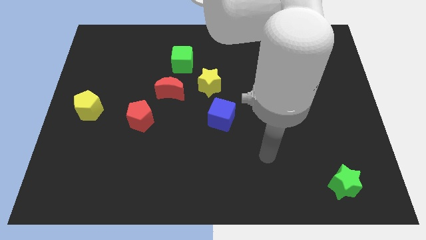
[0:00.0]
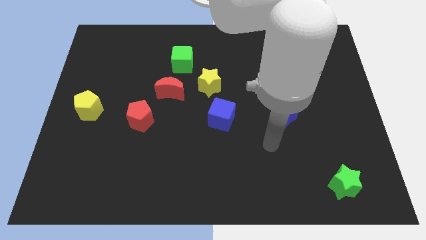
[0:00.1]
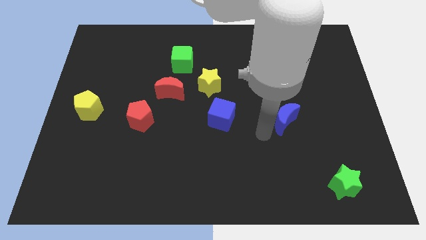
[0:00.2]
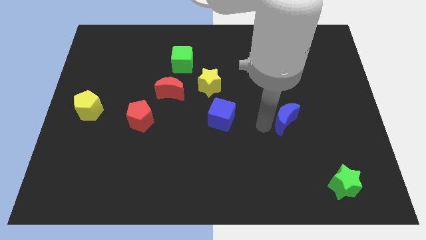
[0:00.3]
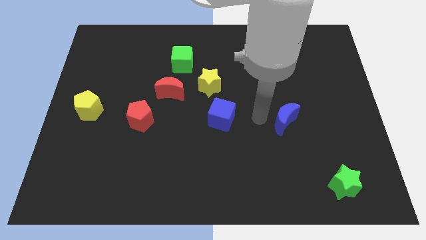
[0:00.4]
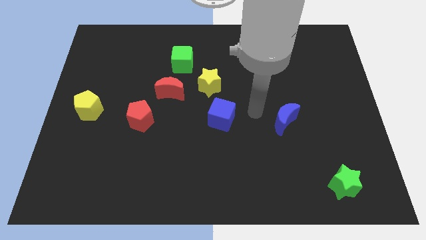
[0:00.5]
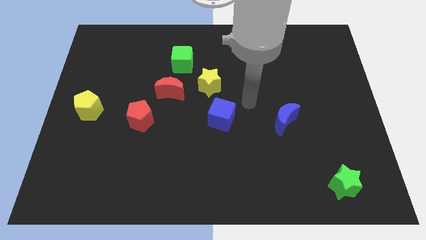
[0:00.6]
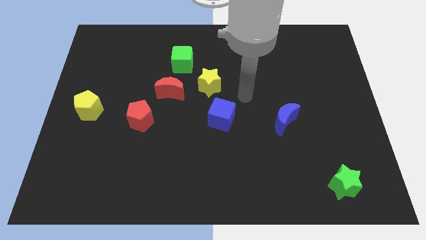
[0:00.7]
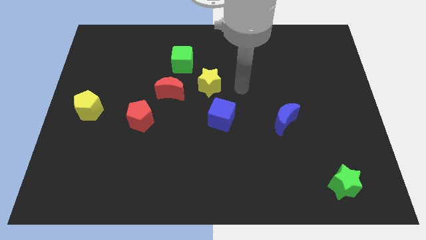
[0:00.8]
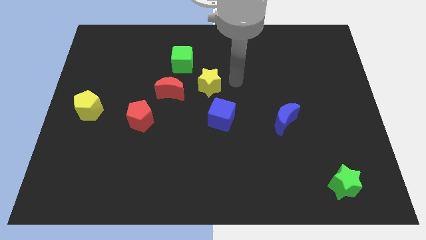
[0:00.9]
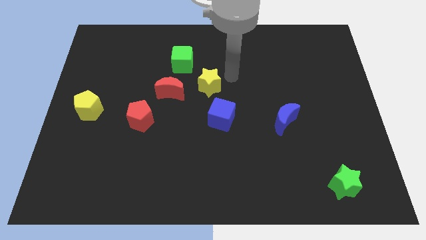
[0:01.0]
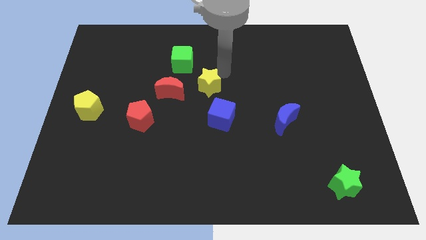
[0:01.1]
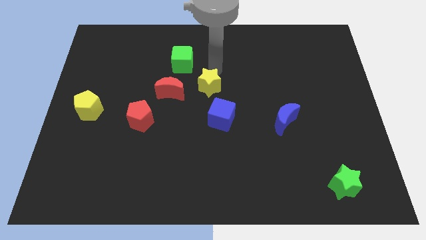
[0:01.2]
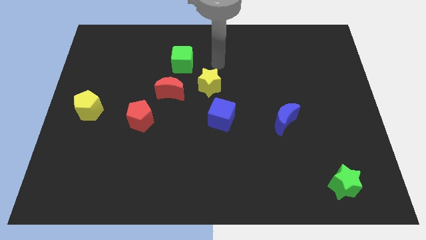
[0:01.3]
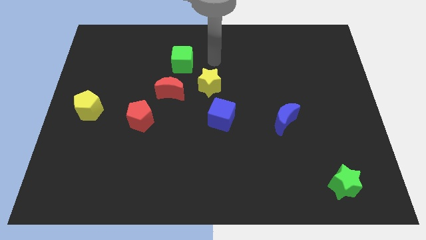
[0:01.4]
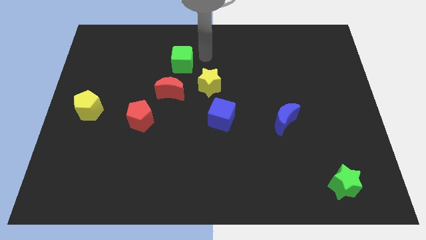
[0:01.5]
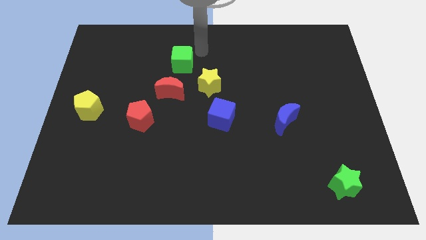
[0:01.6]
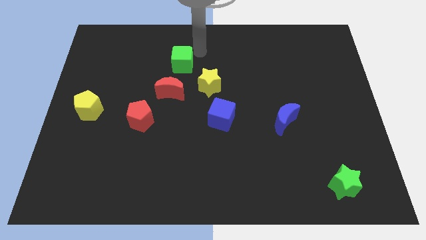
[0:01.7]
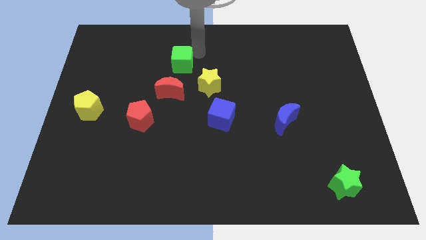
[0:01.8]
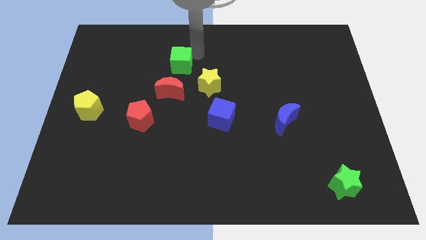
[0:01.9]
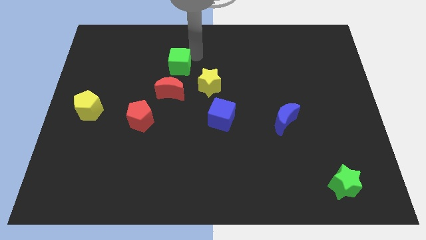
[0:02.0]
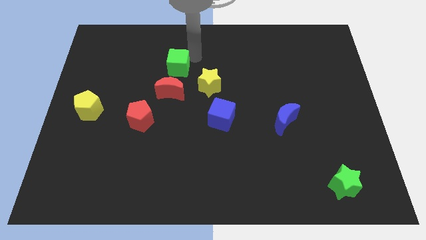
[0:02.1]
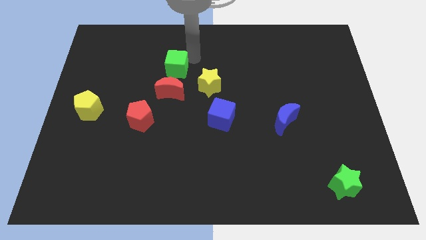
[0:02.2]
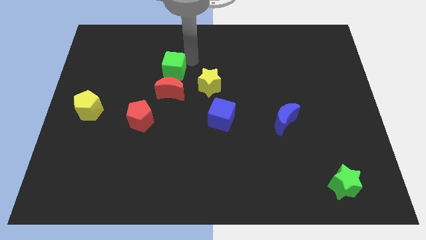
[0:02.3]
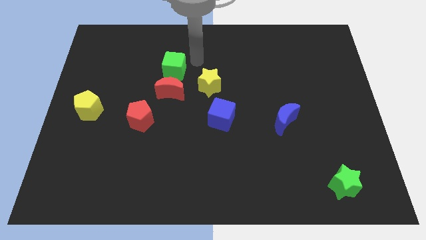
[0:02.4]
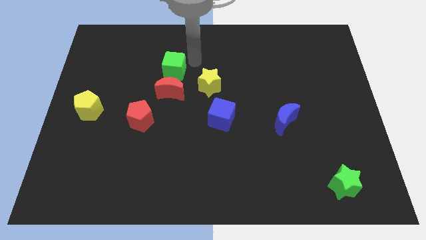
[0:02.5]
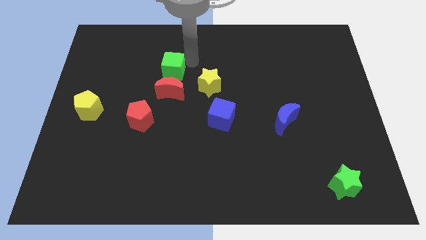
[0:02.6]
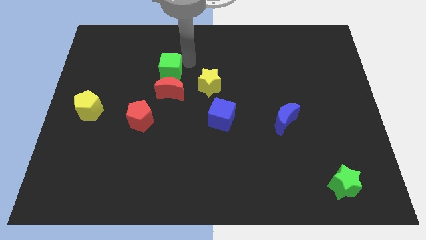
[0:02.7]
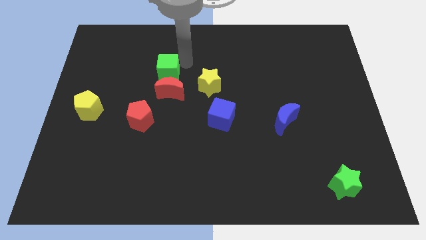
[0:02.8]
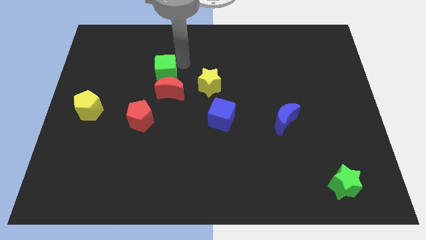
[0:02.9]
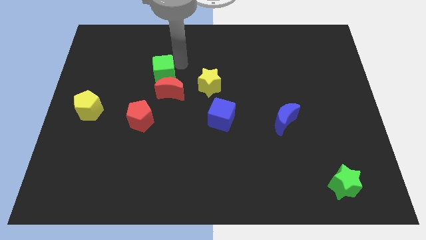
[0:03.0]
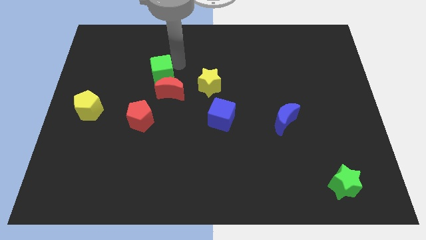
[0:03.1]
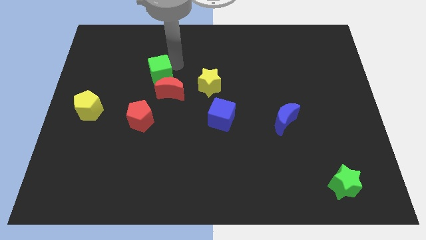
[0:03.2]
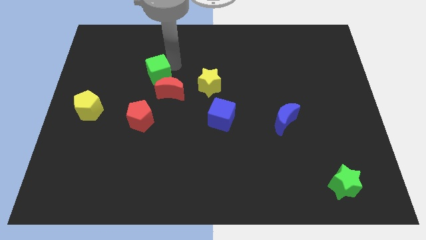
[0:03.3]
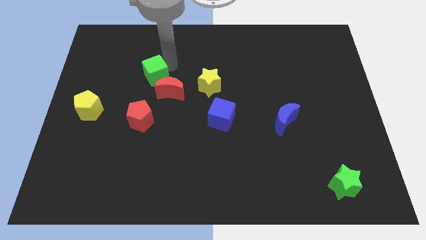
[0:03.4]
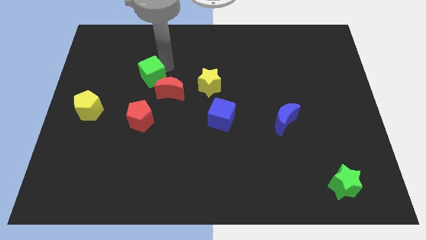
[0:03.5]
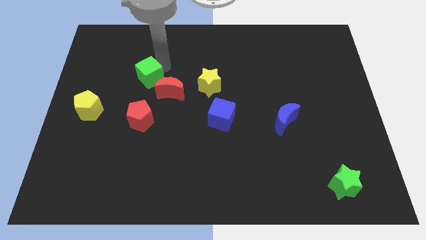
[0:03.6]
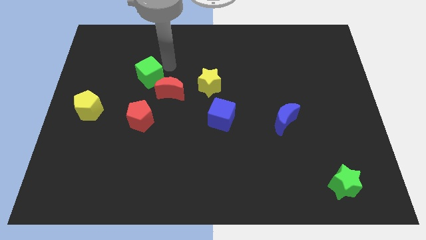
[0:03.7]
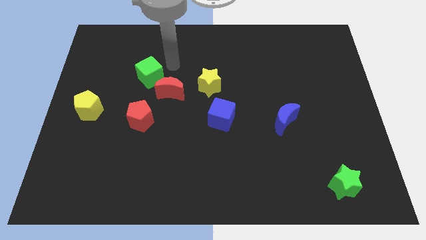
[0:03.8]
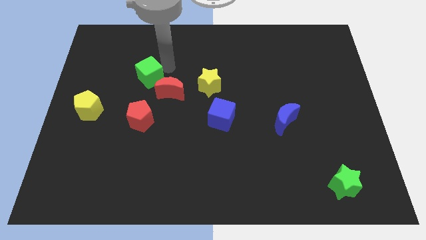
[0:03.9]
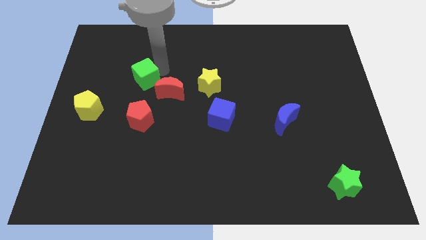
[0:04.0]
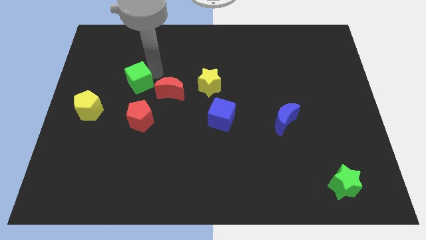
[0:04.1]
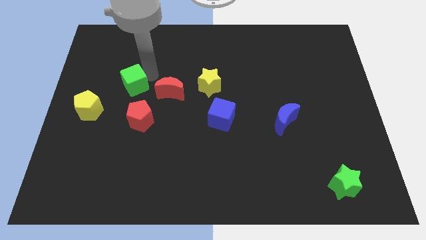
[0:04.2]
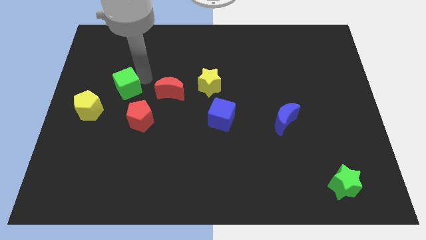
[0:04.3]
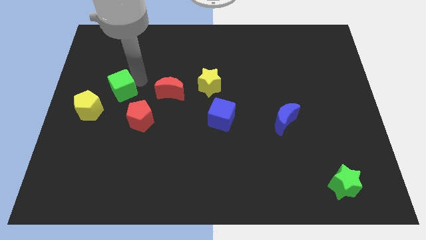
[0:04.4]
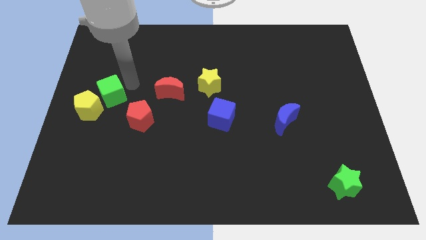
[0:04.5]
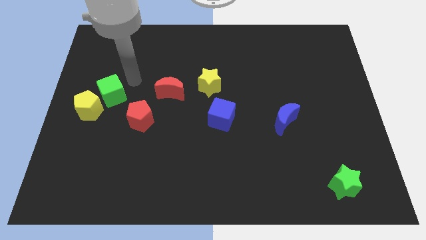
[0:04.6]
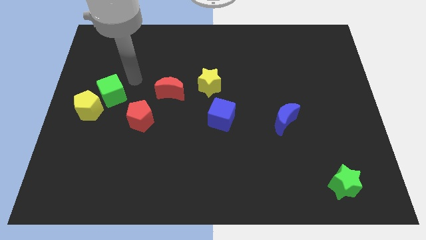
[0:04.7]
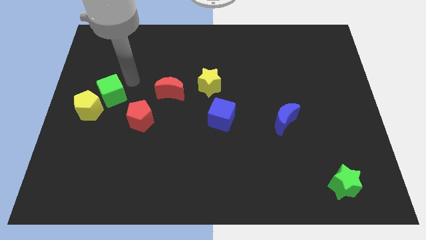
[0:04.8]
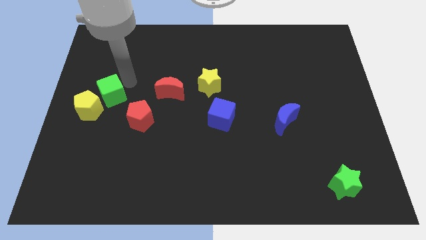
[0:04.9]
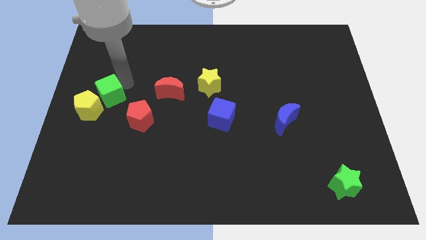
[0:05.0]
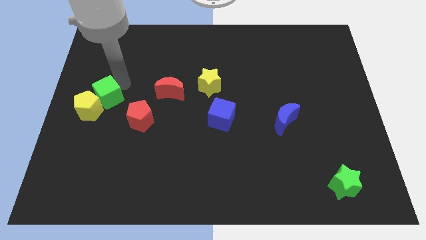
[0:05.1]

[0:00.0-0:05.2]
put the green cube to the yellow pentagon

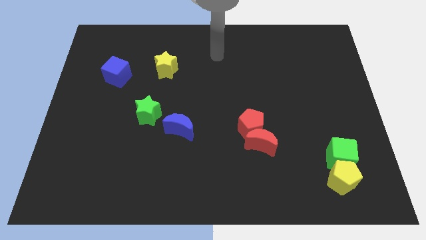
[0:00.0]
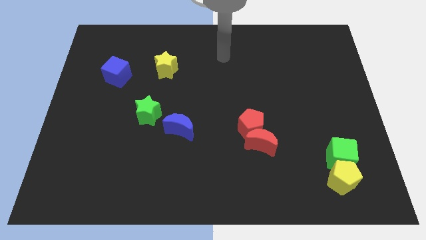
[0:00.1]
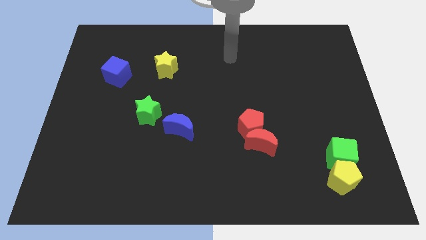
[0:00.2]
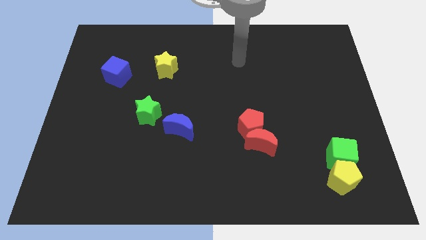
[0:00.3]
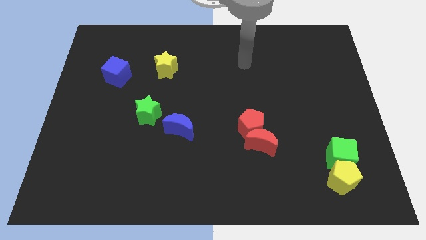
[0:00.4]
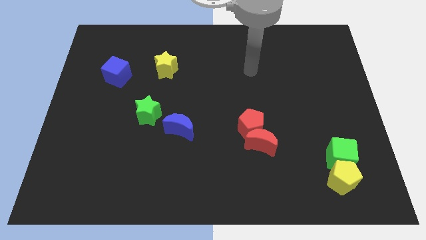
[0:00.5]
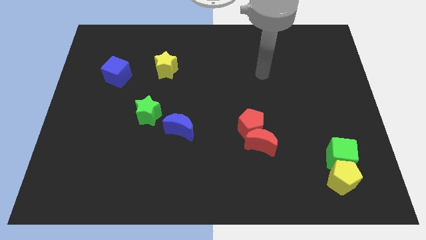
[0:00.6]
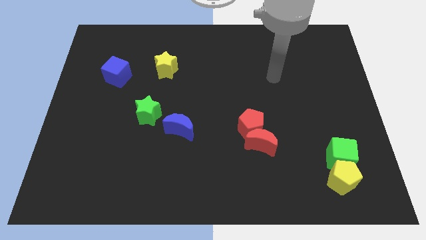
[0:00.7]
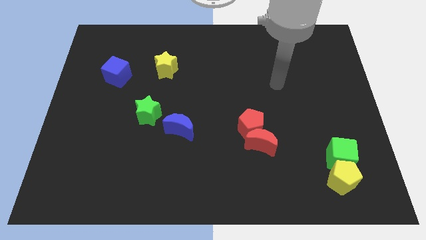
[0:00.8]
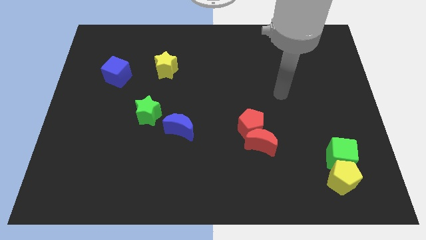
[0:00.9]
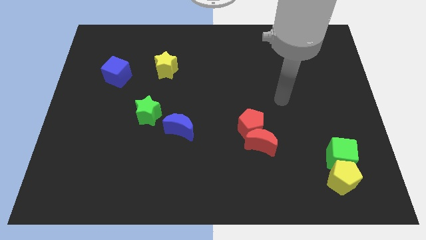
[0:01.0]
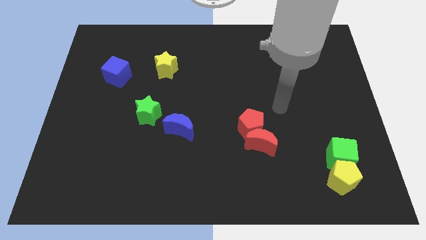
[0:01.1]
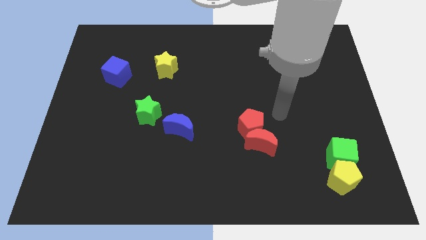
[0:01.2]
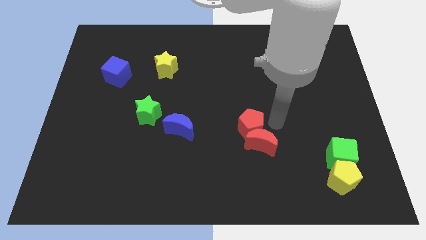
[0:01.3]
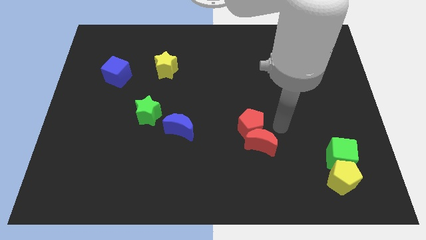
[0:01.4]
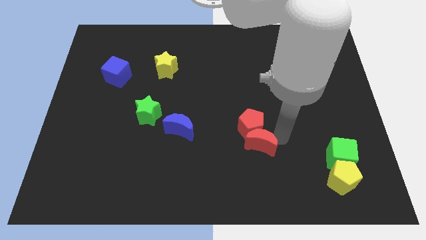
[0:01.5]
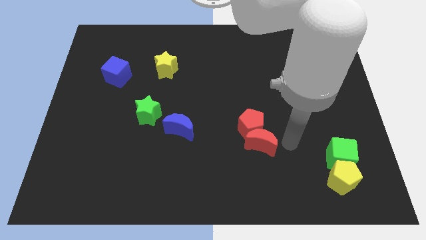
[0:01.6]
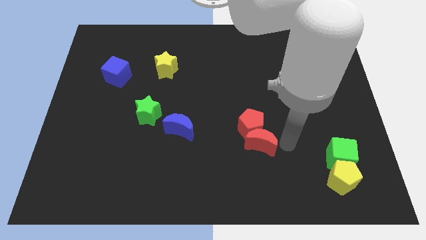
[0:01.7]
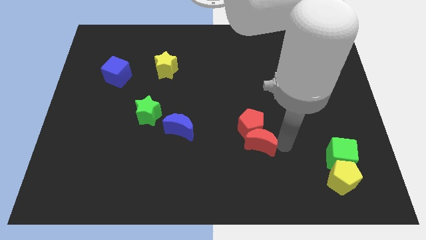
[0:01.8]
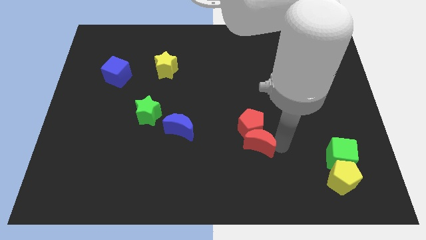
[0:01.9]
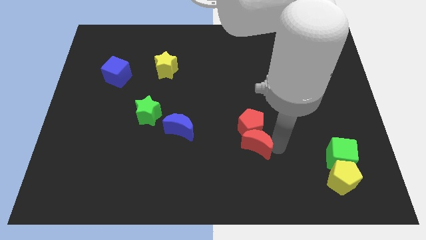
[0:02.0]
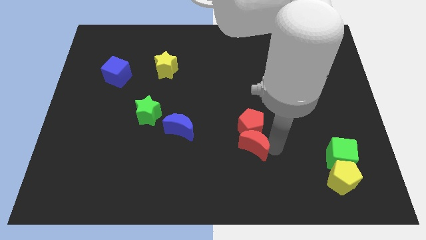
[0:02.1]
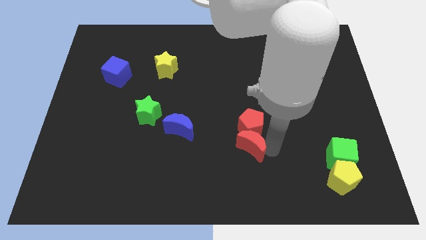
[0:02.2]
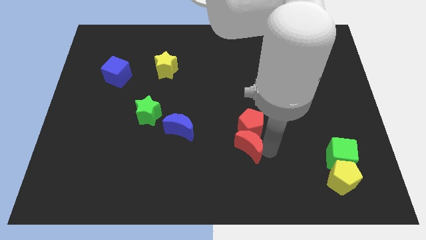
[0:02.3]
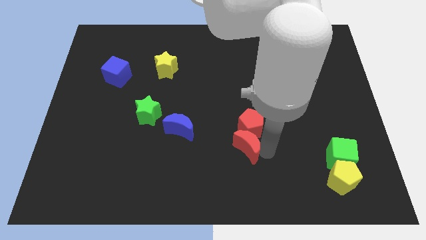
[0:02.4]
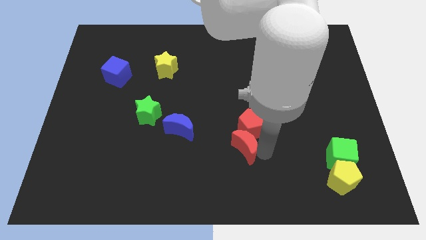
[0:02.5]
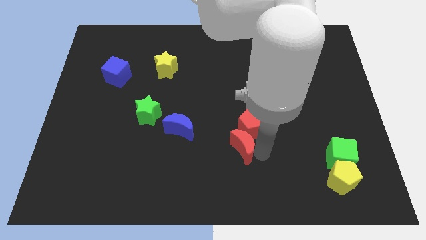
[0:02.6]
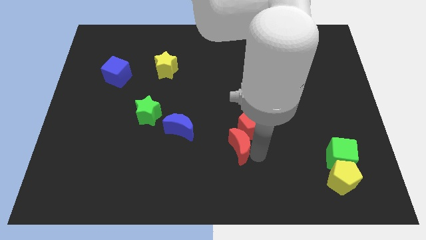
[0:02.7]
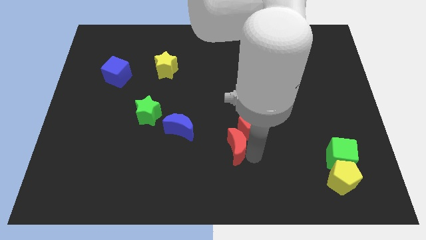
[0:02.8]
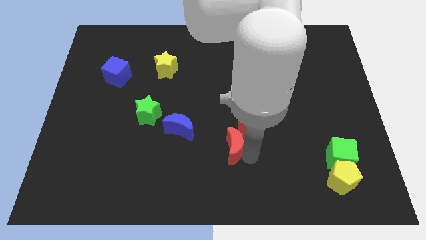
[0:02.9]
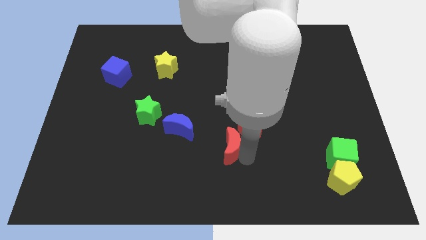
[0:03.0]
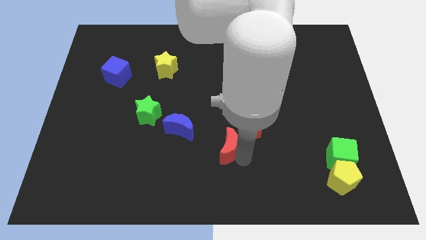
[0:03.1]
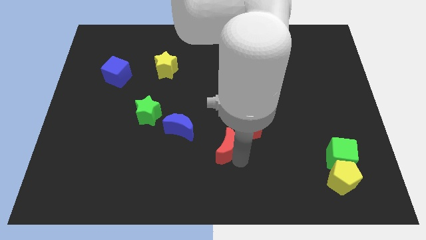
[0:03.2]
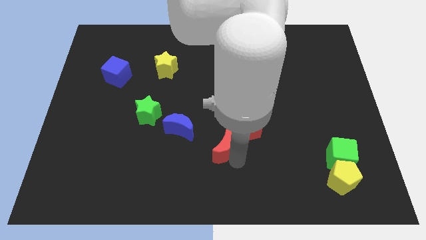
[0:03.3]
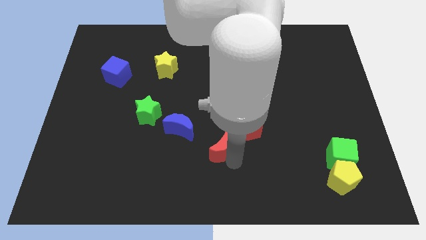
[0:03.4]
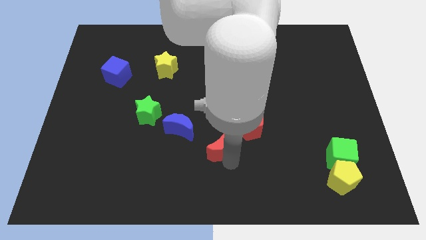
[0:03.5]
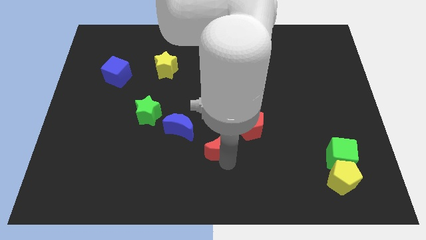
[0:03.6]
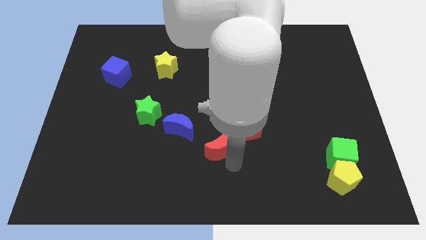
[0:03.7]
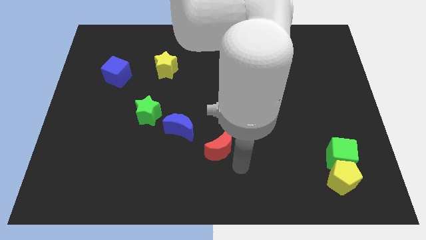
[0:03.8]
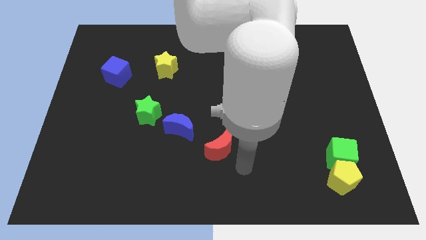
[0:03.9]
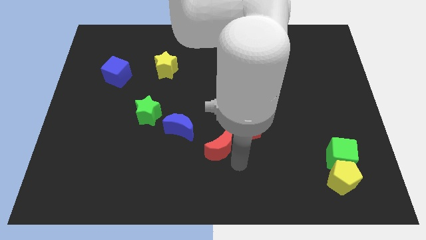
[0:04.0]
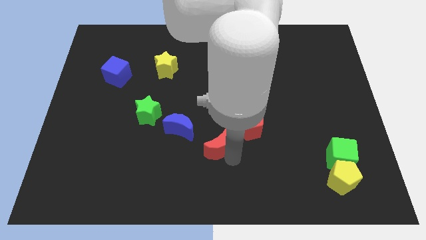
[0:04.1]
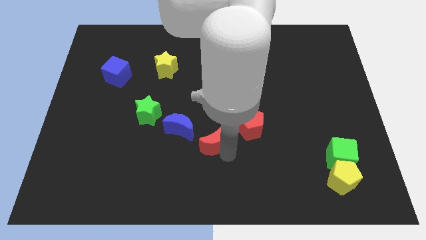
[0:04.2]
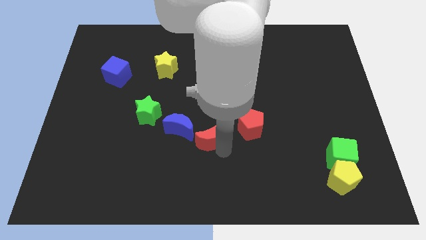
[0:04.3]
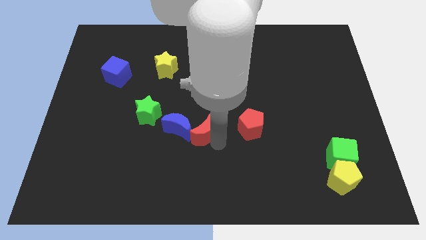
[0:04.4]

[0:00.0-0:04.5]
slide the red moon towards the blue moon
